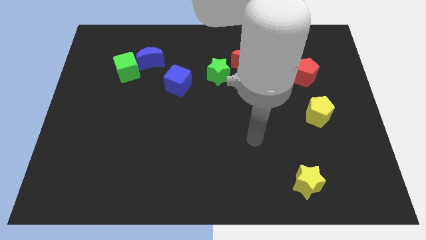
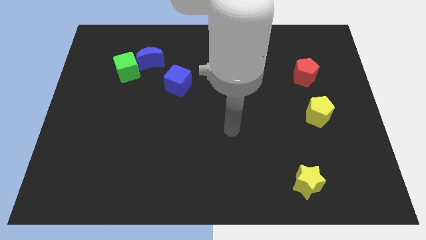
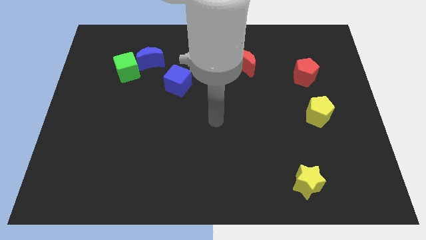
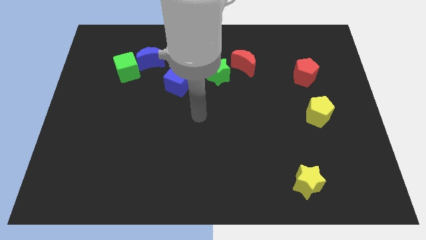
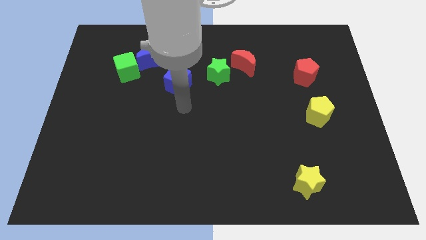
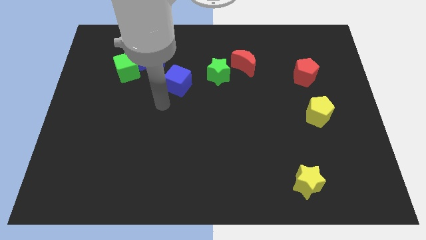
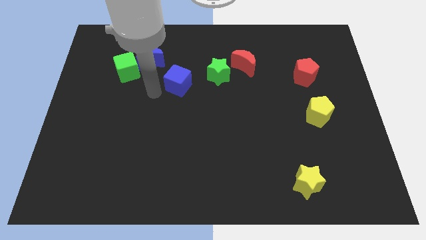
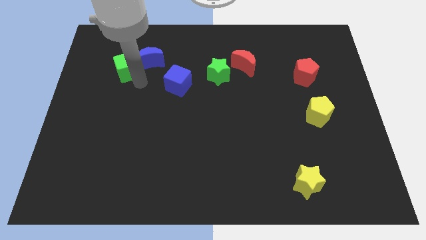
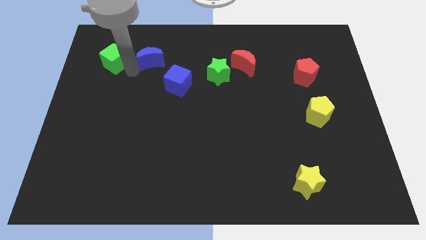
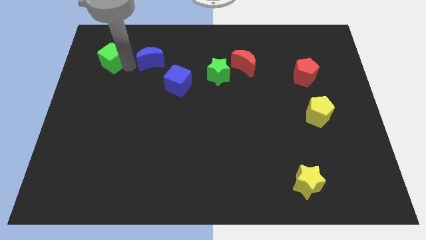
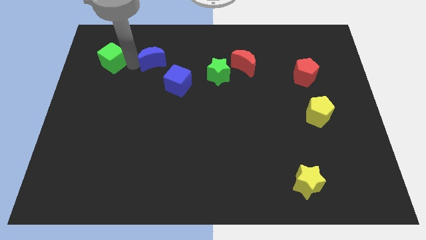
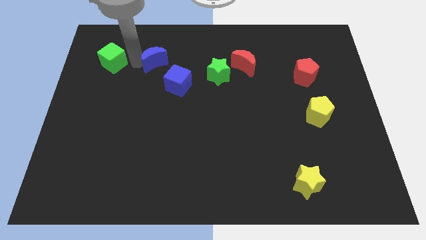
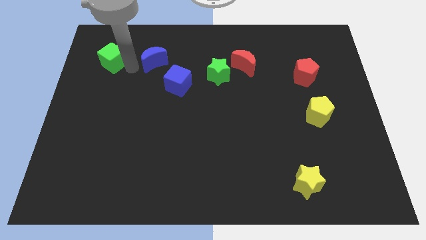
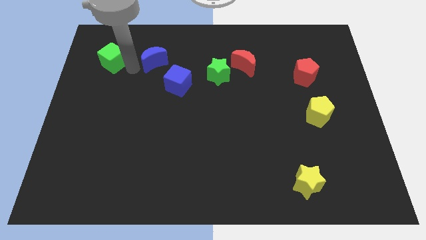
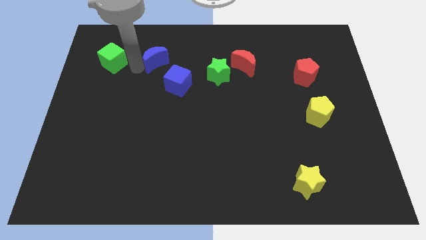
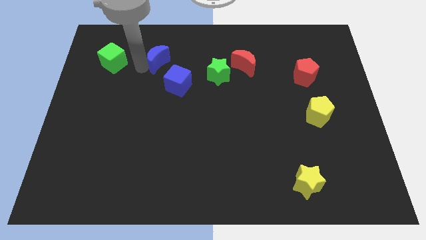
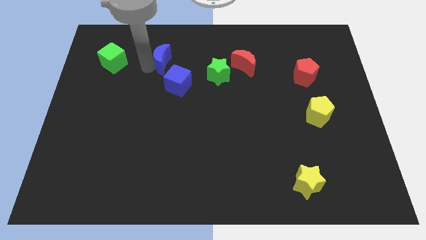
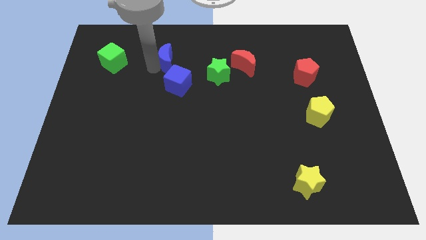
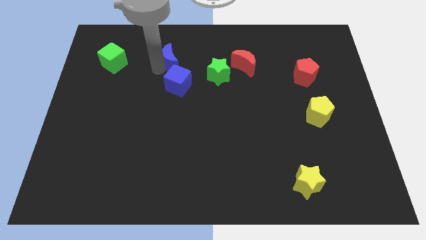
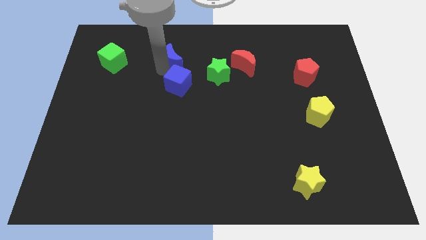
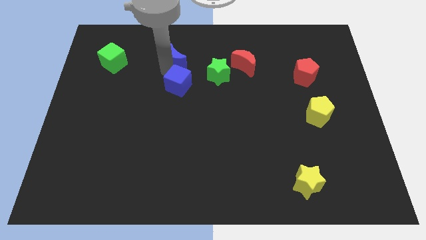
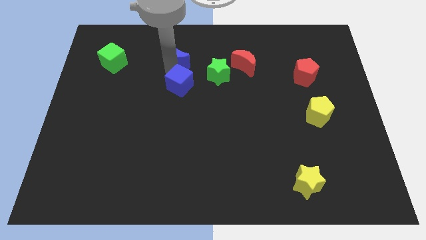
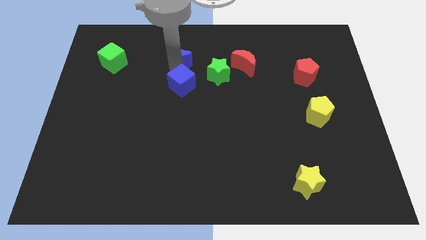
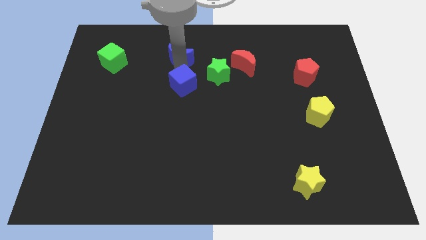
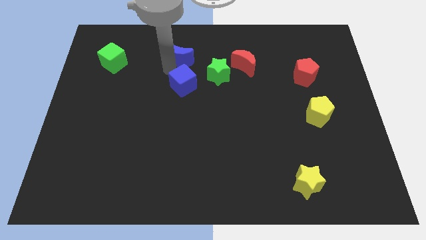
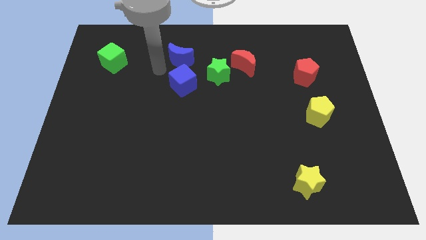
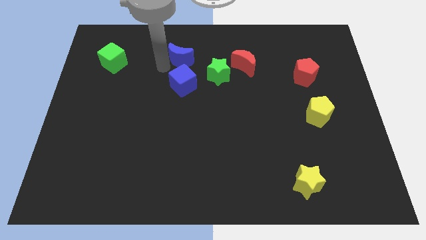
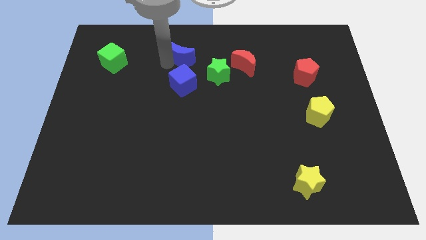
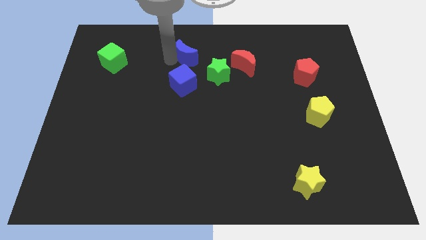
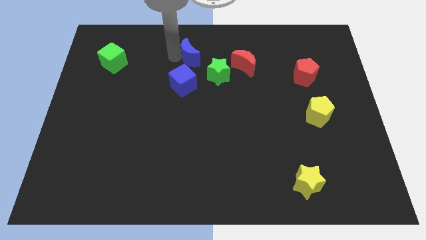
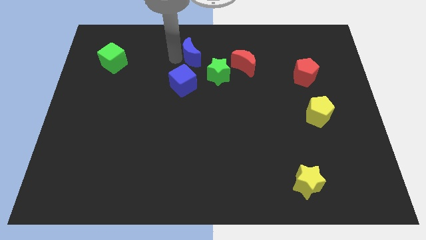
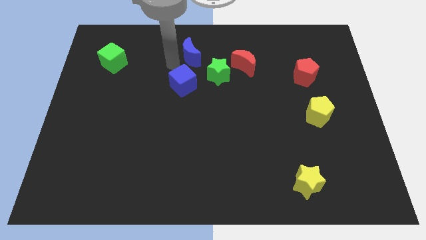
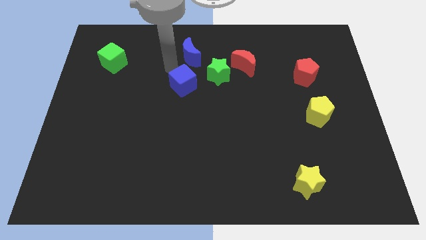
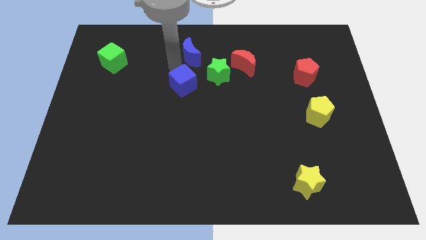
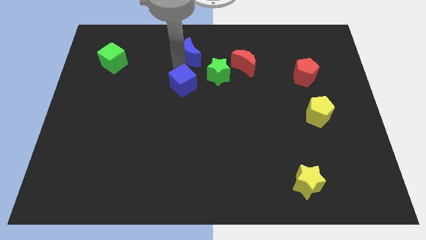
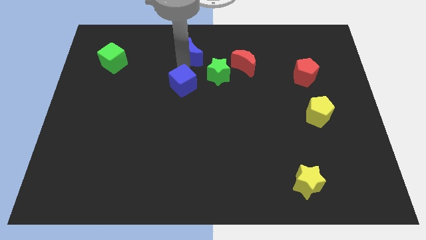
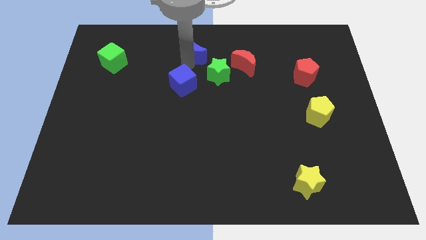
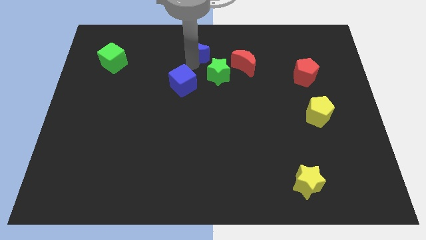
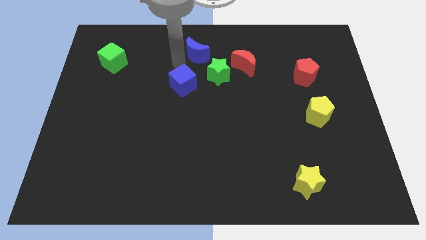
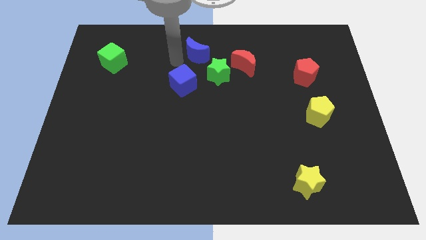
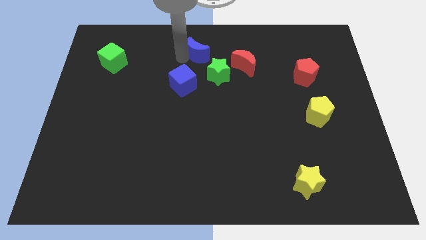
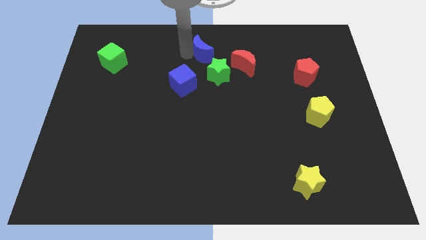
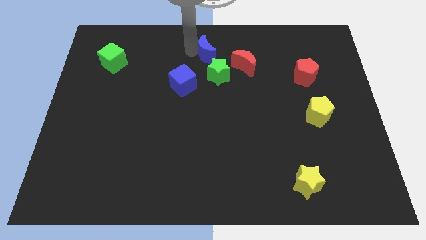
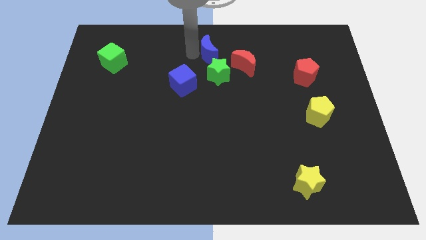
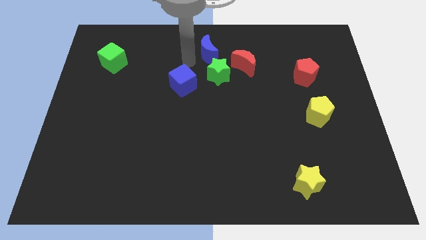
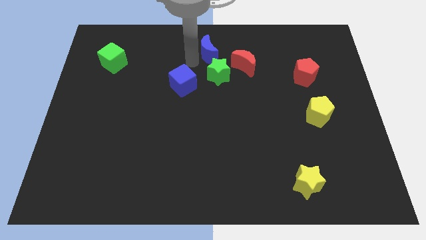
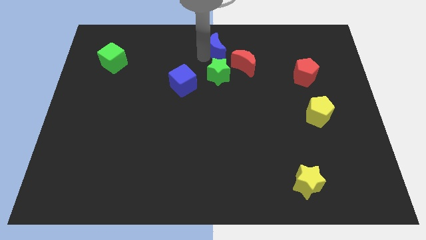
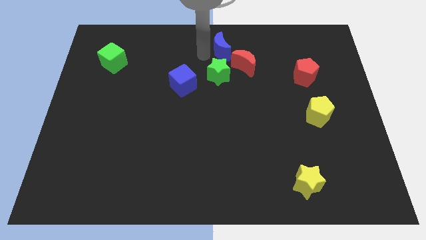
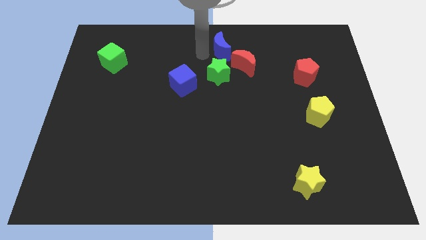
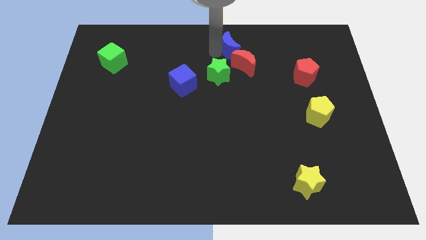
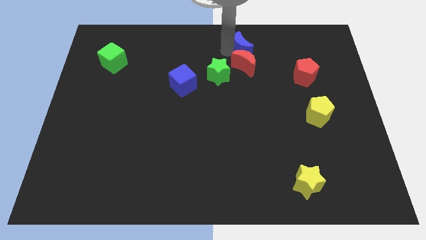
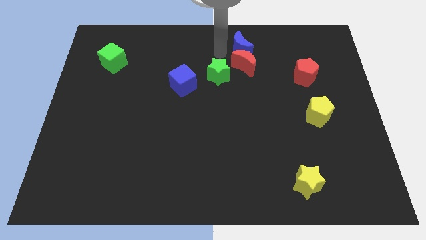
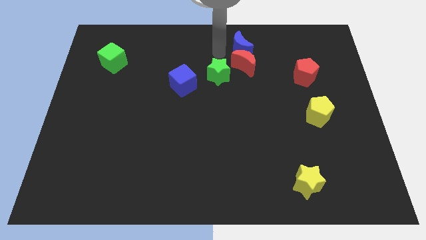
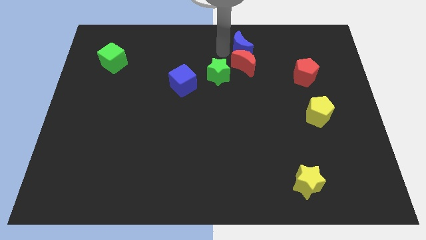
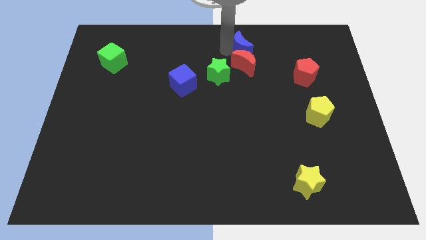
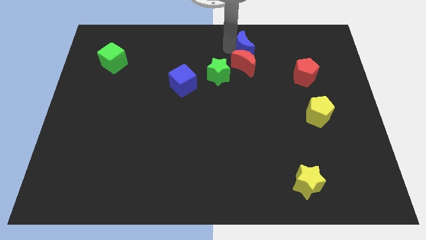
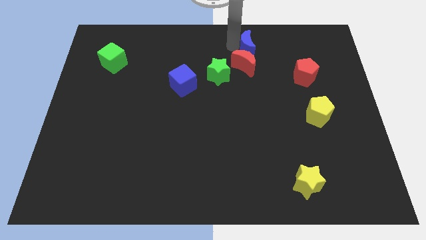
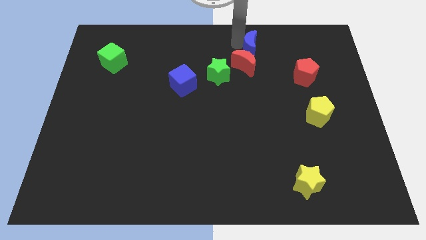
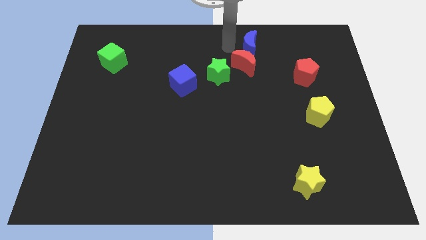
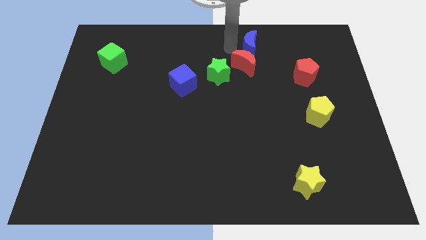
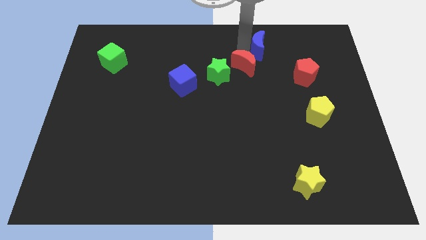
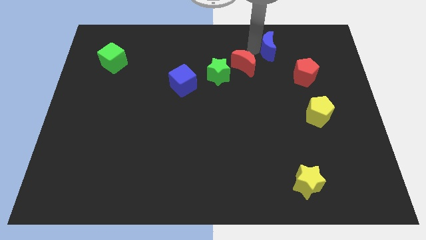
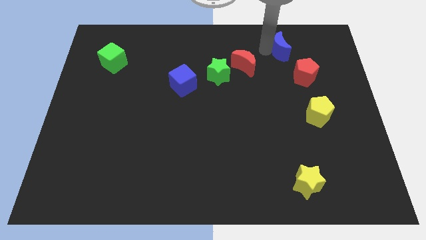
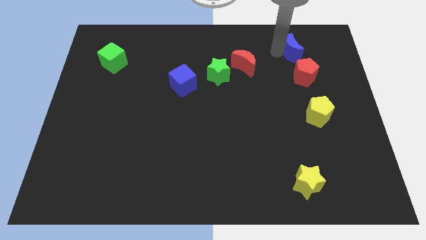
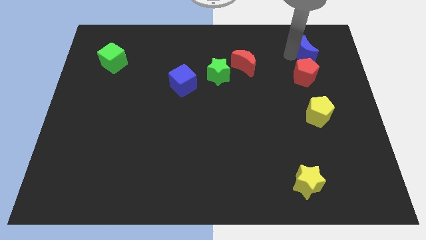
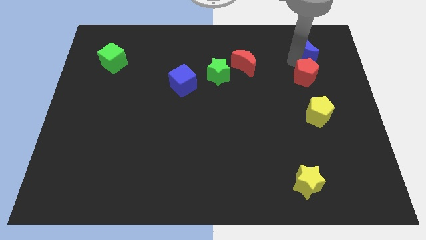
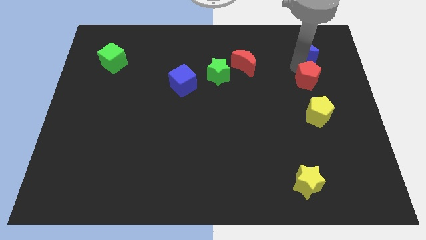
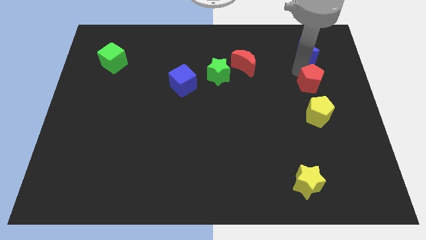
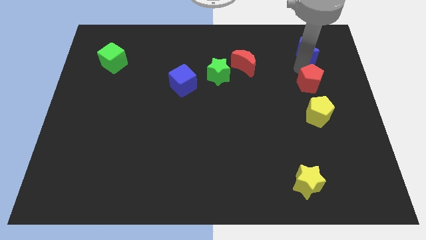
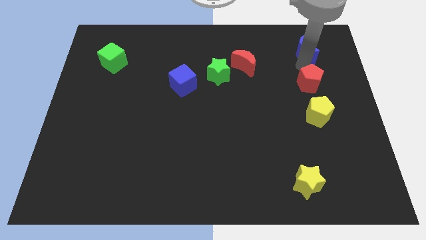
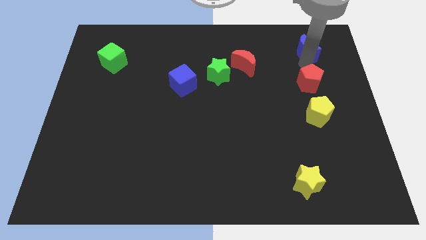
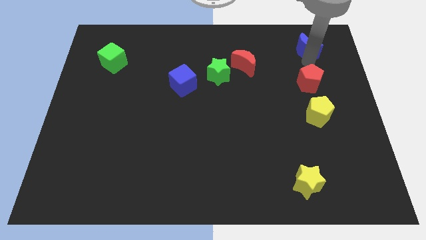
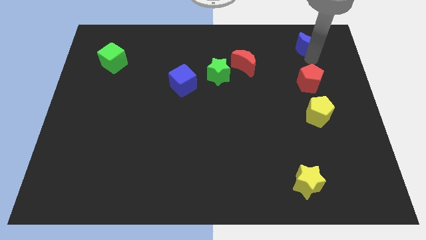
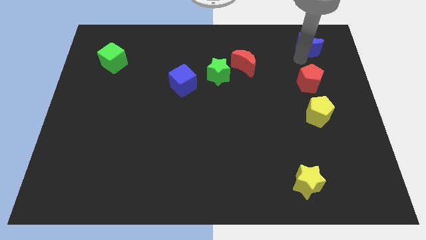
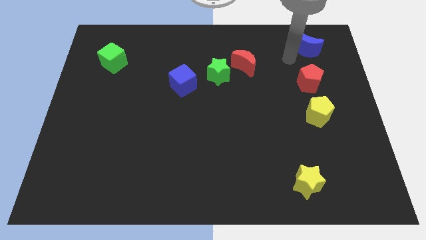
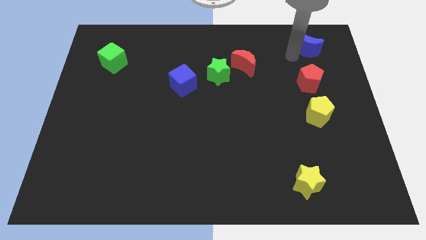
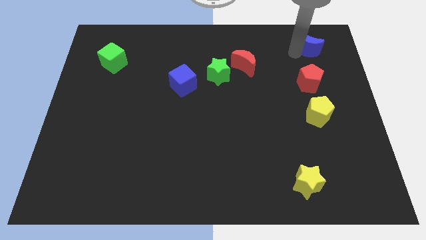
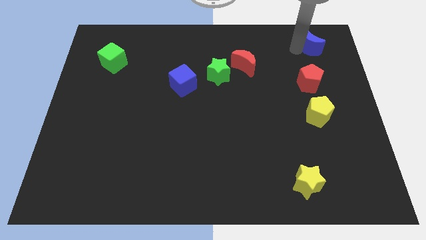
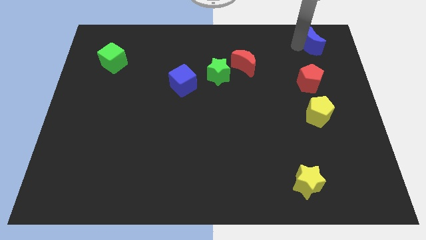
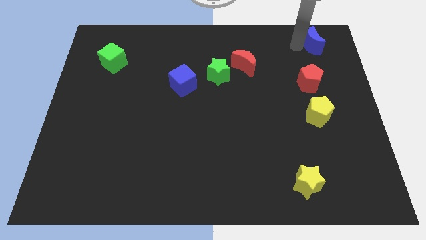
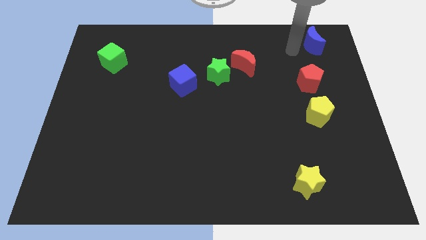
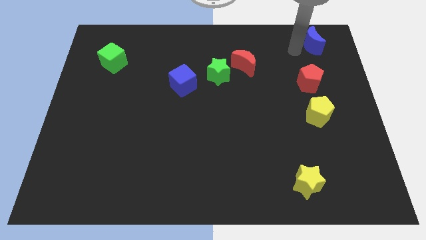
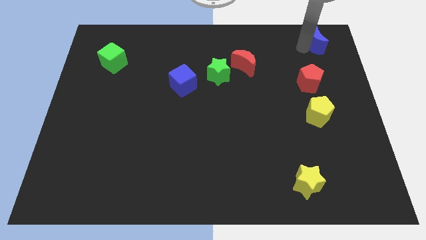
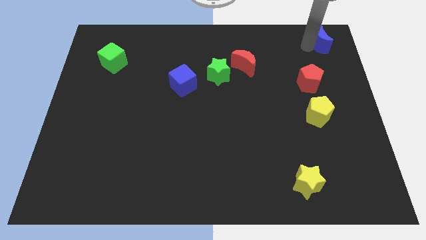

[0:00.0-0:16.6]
put the blue moon to the top right corner
